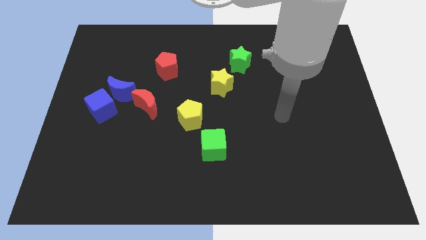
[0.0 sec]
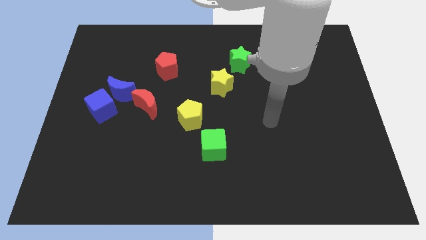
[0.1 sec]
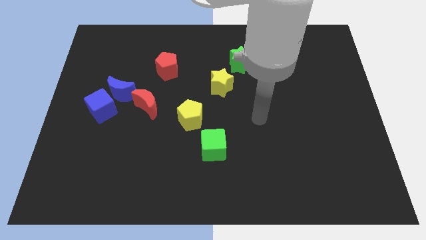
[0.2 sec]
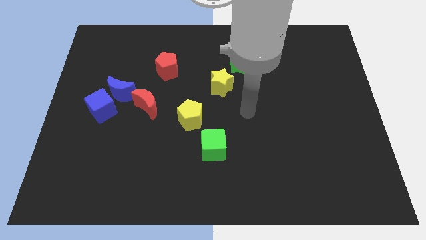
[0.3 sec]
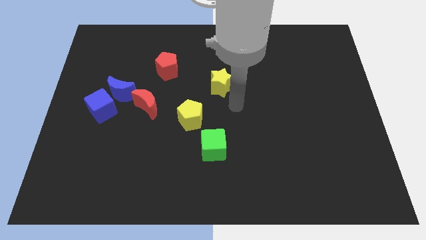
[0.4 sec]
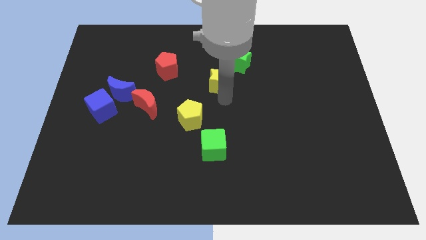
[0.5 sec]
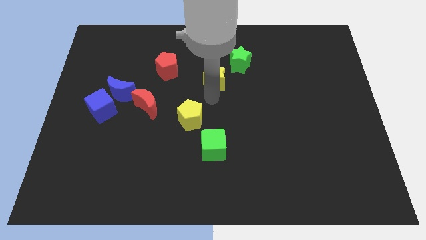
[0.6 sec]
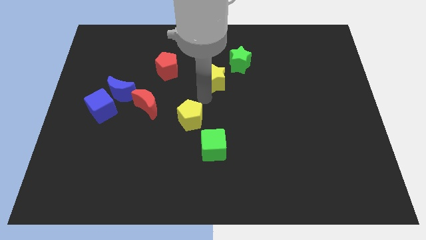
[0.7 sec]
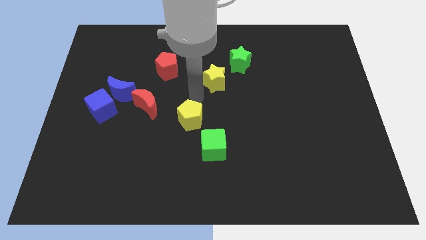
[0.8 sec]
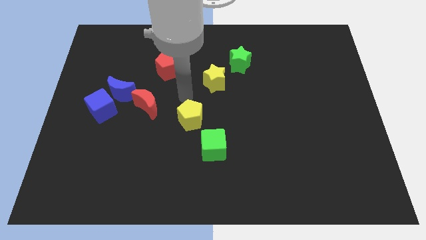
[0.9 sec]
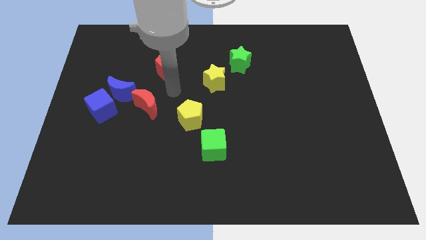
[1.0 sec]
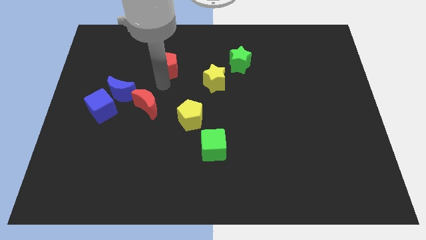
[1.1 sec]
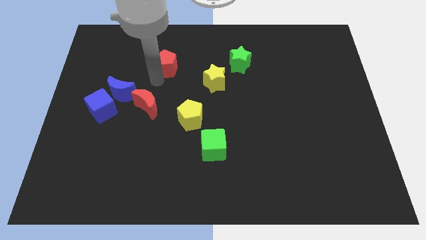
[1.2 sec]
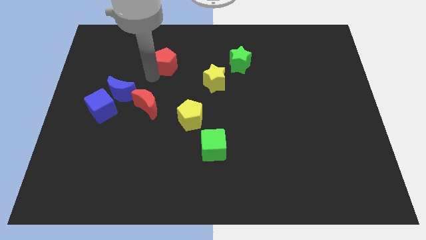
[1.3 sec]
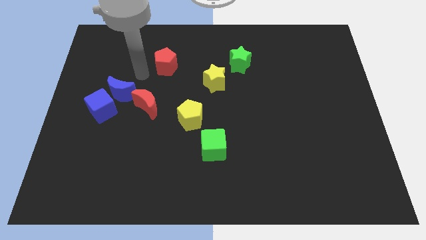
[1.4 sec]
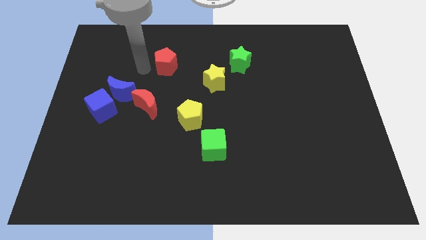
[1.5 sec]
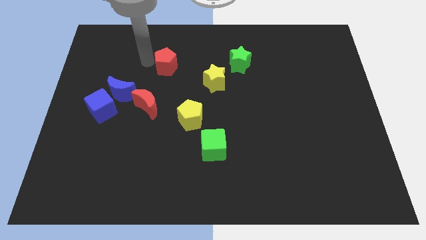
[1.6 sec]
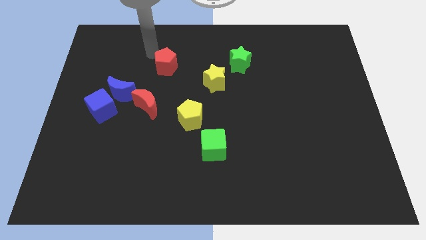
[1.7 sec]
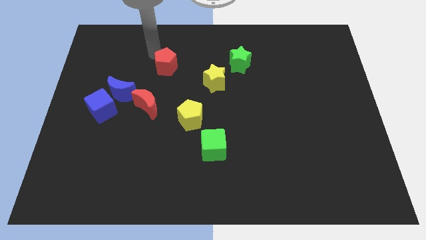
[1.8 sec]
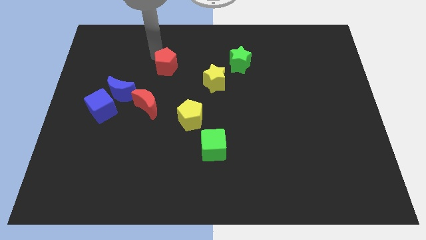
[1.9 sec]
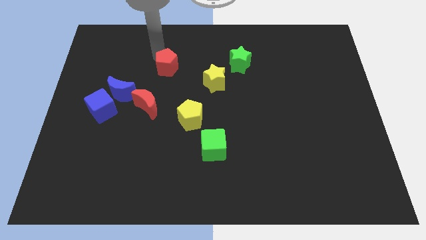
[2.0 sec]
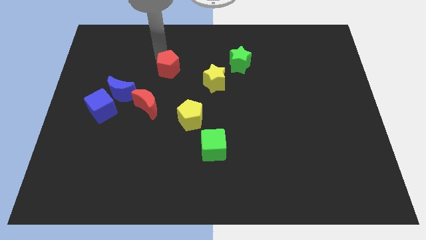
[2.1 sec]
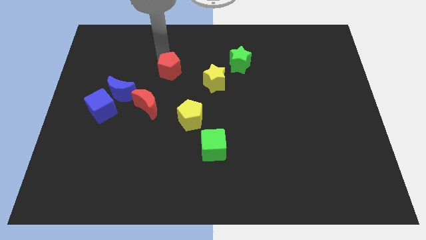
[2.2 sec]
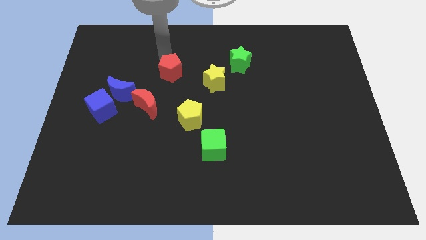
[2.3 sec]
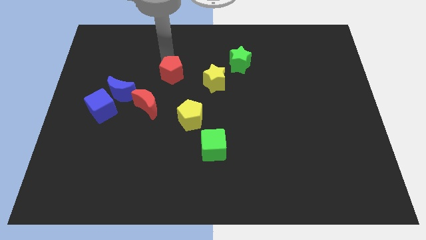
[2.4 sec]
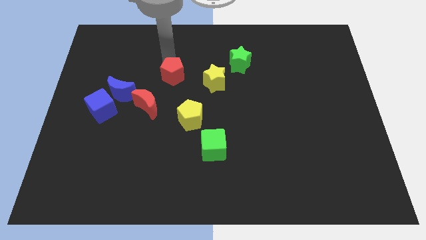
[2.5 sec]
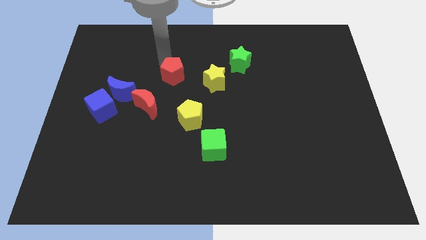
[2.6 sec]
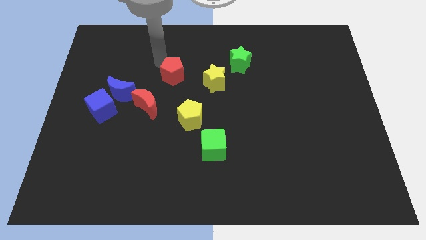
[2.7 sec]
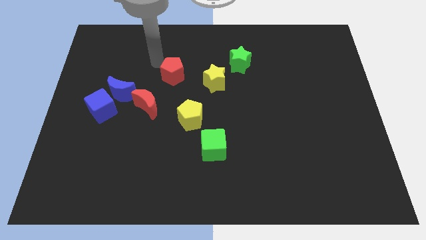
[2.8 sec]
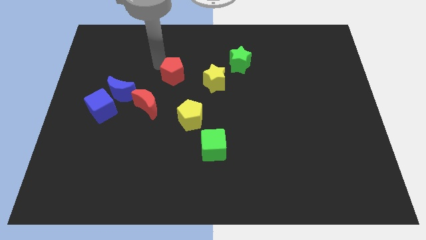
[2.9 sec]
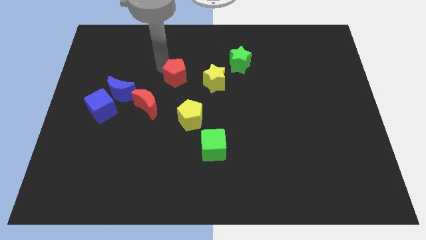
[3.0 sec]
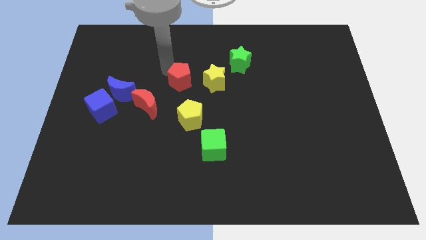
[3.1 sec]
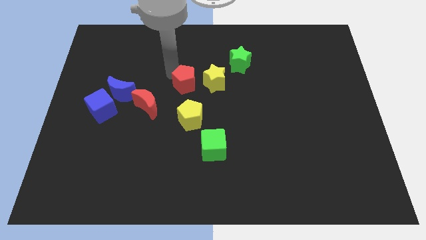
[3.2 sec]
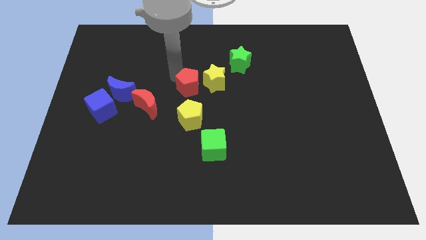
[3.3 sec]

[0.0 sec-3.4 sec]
move the red pentagon down and to the right a little bit

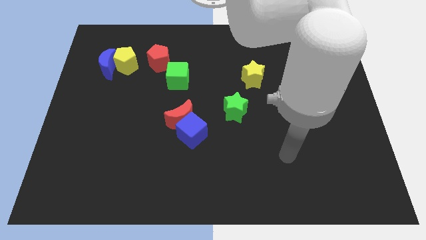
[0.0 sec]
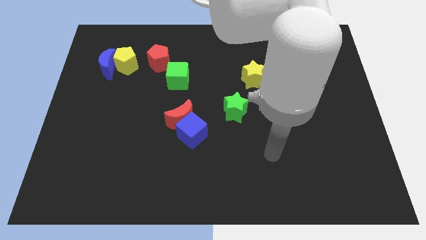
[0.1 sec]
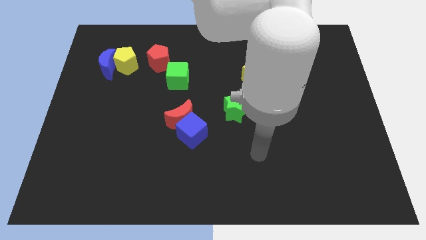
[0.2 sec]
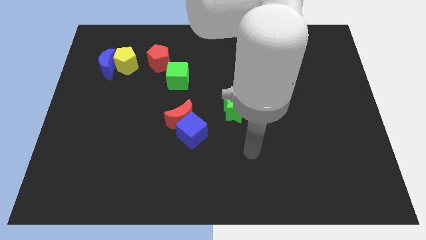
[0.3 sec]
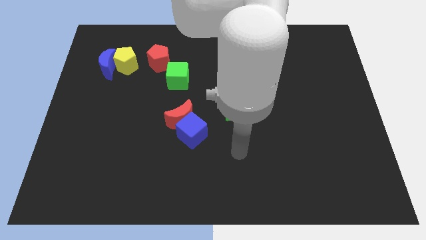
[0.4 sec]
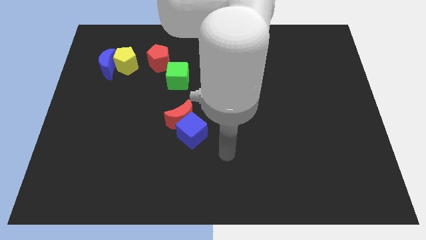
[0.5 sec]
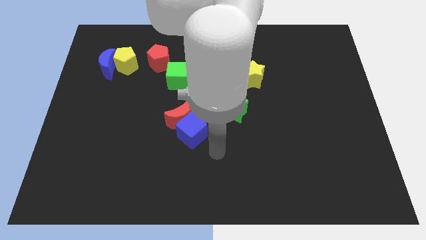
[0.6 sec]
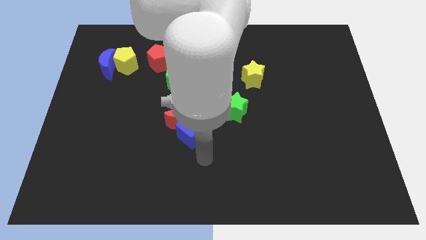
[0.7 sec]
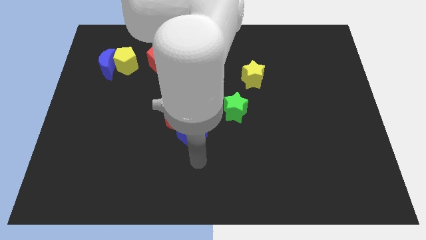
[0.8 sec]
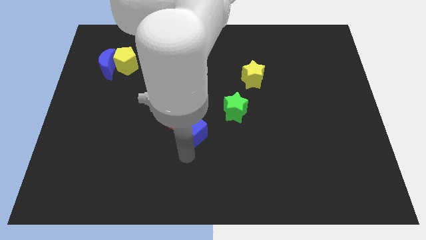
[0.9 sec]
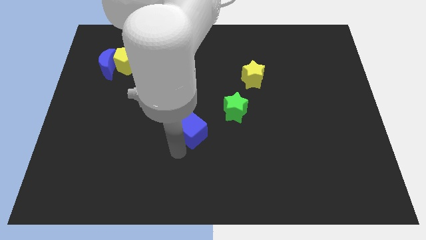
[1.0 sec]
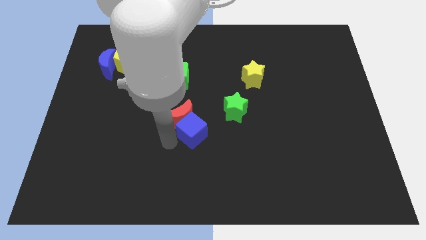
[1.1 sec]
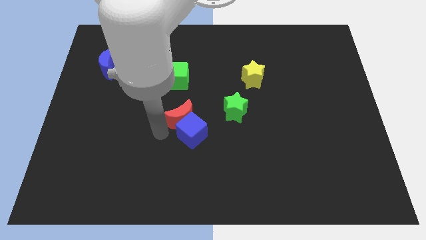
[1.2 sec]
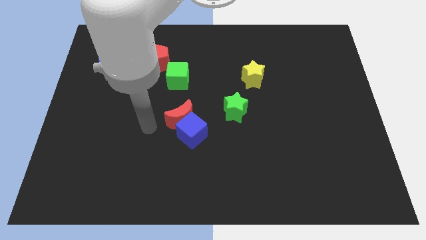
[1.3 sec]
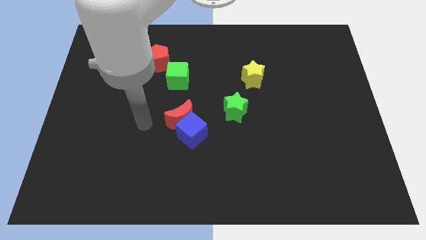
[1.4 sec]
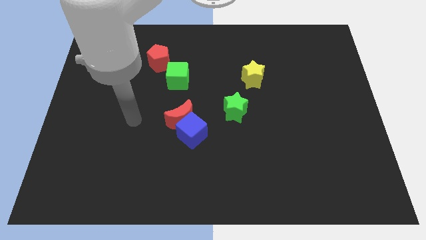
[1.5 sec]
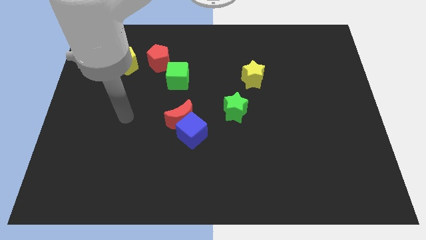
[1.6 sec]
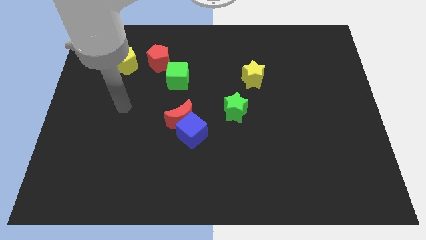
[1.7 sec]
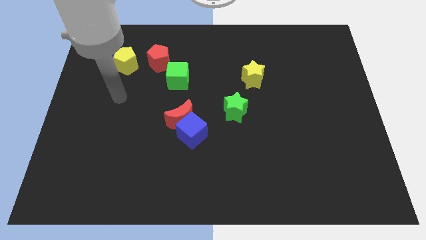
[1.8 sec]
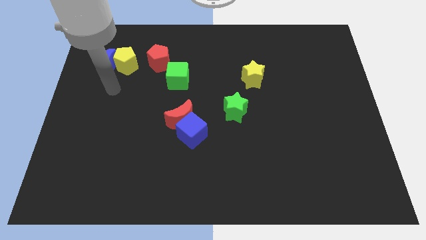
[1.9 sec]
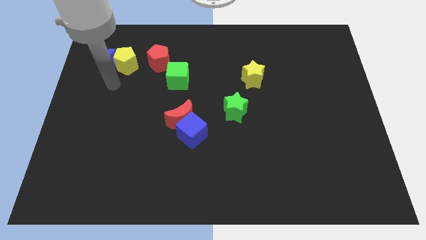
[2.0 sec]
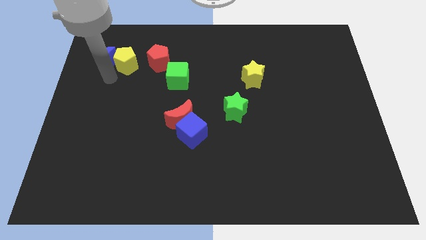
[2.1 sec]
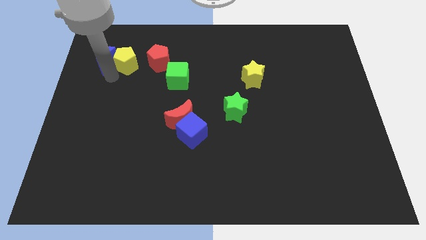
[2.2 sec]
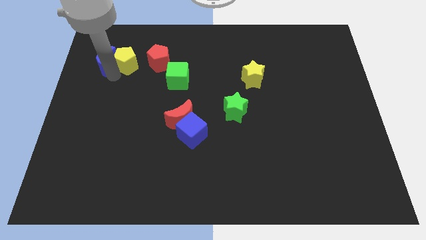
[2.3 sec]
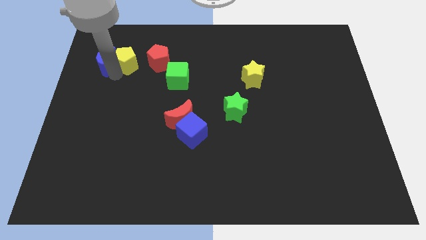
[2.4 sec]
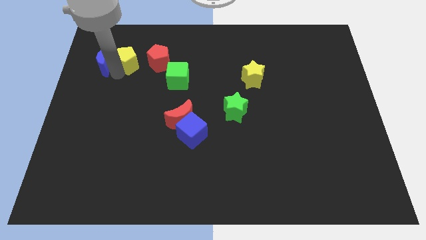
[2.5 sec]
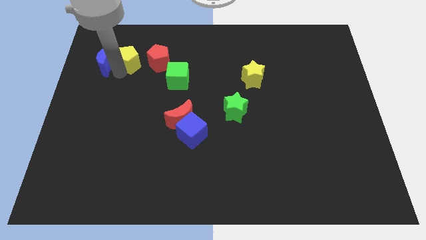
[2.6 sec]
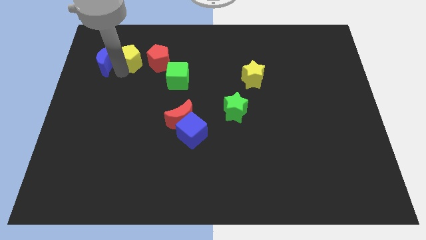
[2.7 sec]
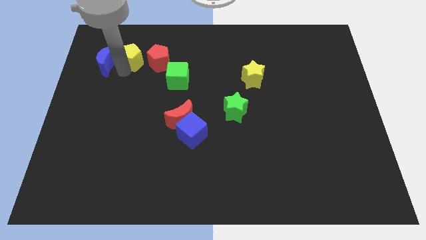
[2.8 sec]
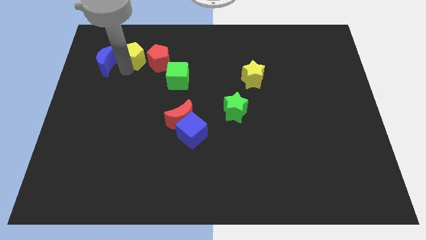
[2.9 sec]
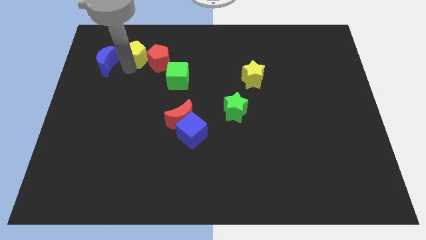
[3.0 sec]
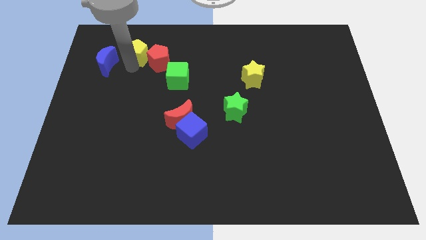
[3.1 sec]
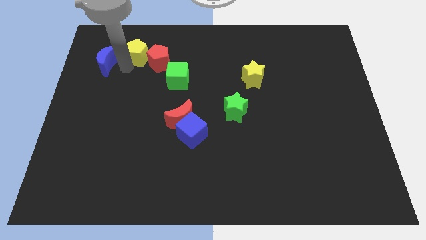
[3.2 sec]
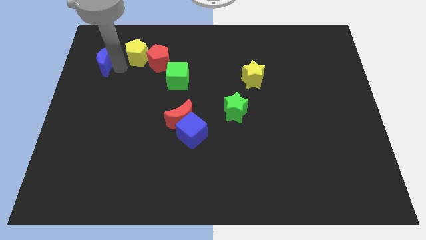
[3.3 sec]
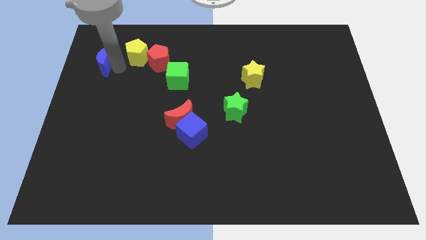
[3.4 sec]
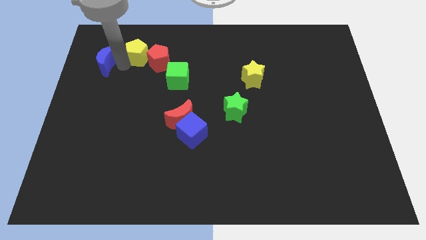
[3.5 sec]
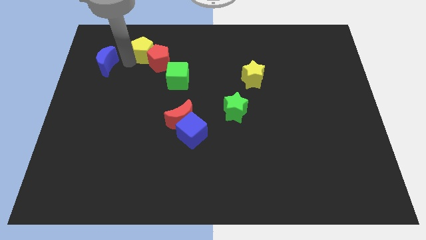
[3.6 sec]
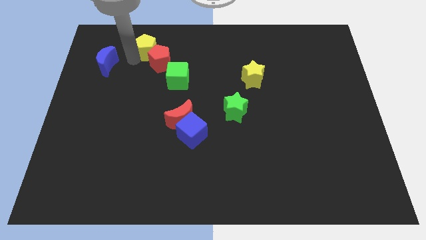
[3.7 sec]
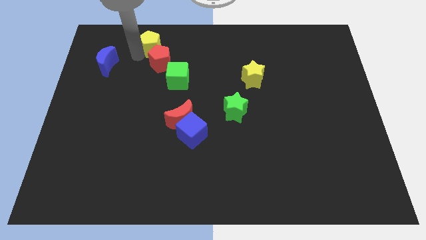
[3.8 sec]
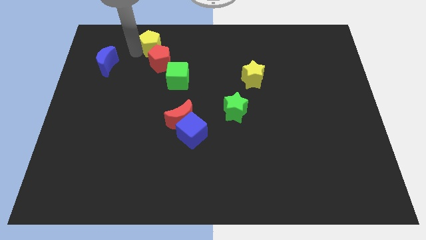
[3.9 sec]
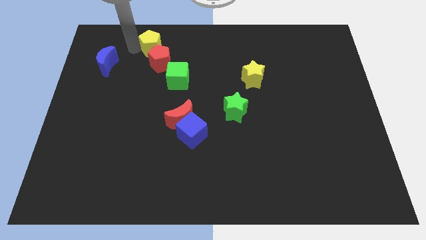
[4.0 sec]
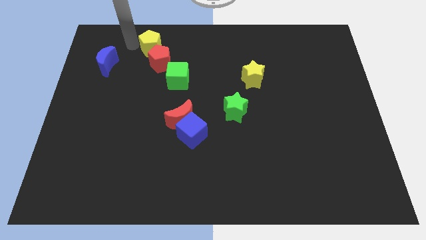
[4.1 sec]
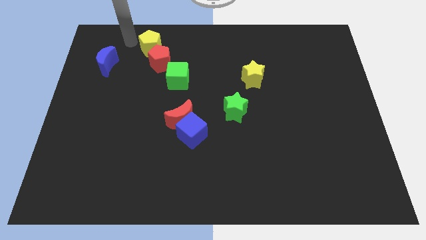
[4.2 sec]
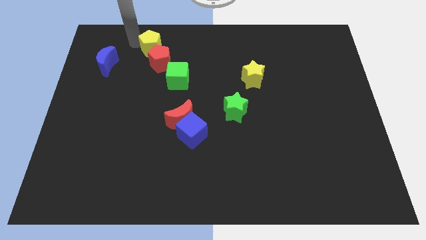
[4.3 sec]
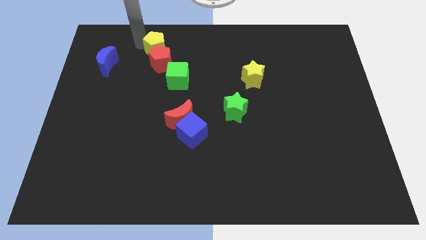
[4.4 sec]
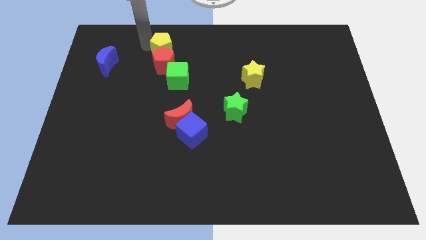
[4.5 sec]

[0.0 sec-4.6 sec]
move the yellow pentagon a bit right
